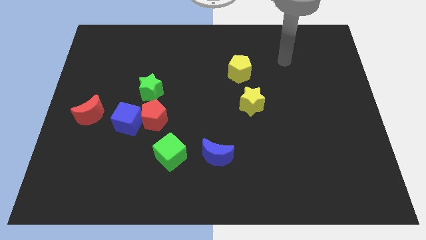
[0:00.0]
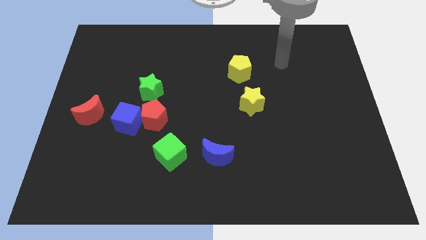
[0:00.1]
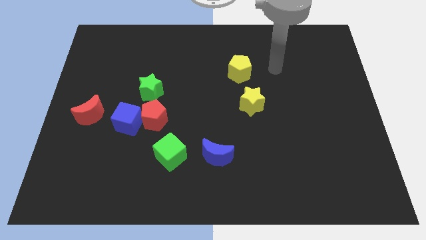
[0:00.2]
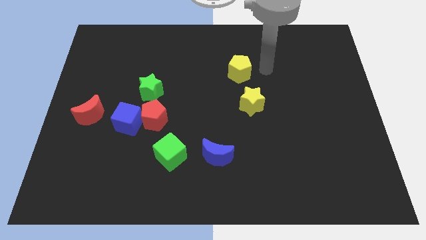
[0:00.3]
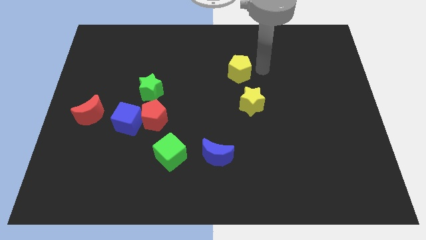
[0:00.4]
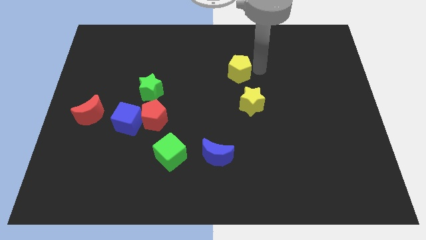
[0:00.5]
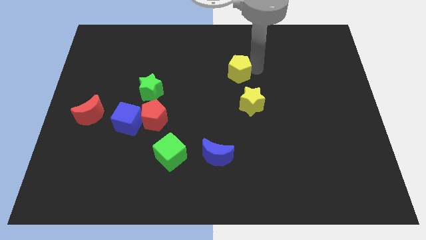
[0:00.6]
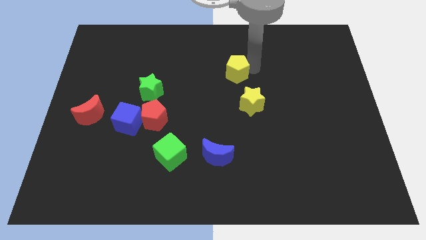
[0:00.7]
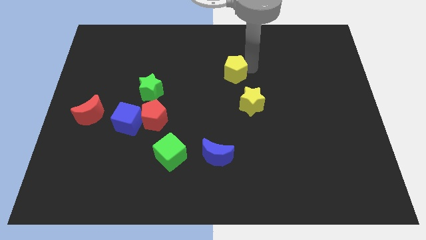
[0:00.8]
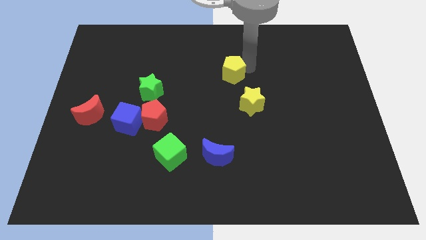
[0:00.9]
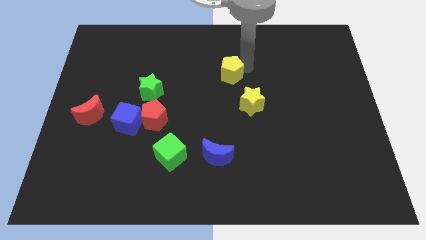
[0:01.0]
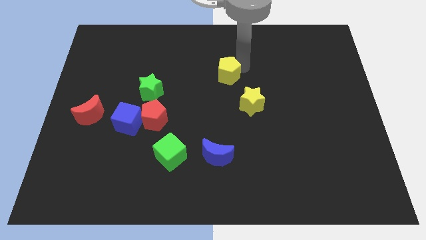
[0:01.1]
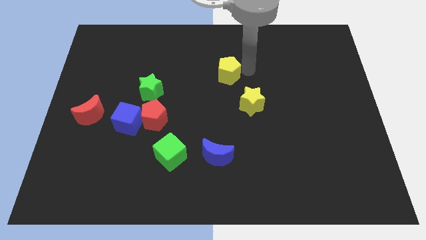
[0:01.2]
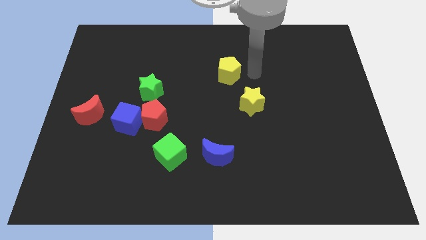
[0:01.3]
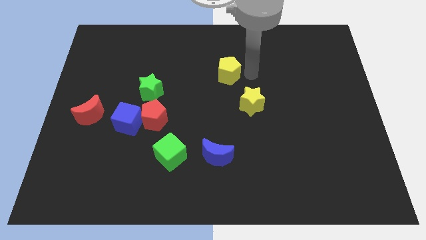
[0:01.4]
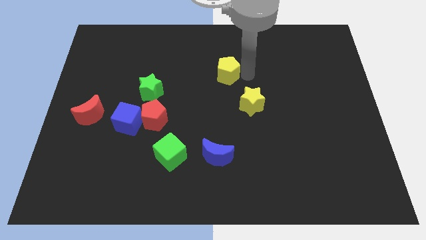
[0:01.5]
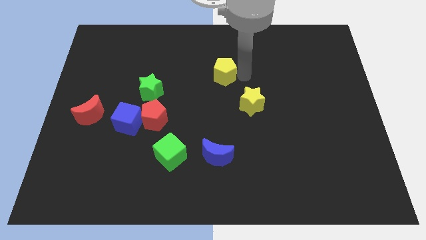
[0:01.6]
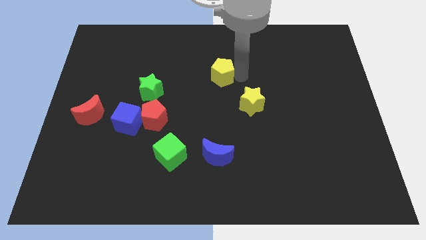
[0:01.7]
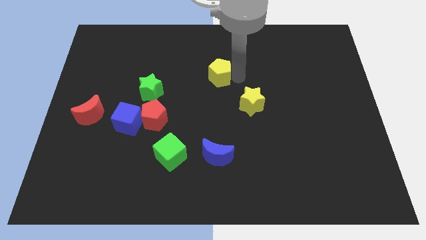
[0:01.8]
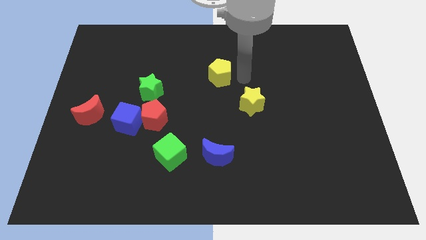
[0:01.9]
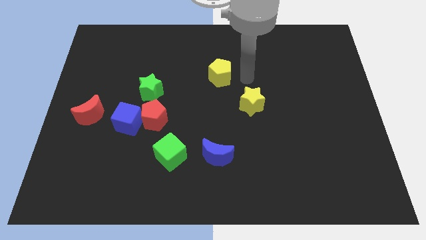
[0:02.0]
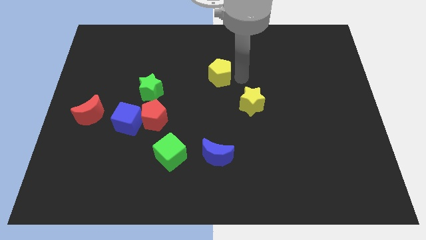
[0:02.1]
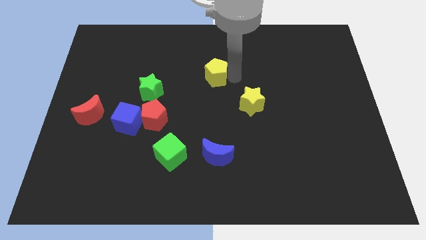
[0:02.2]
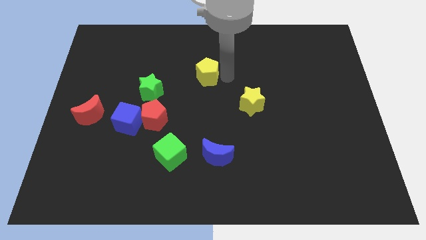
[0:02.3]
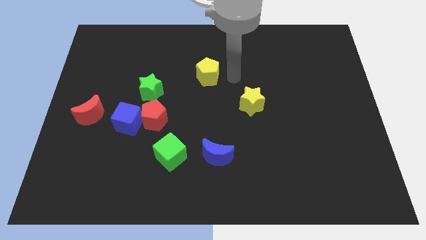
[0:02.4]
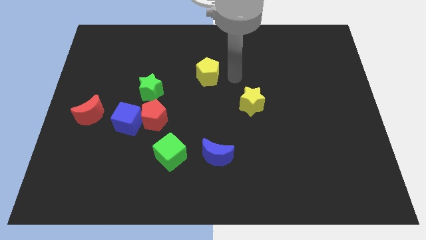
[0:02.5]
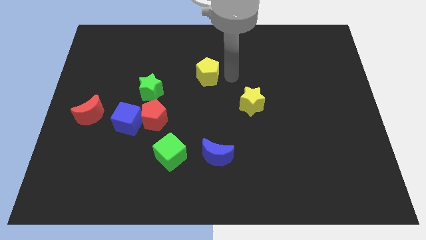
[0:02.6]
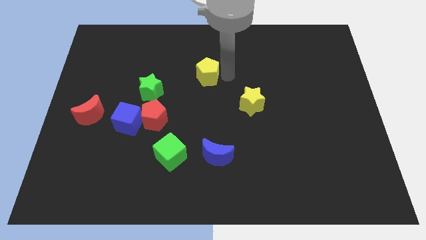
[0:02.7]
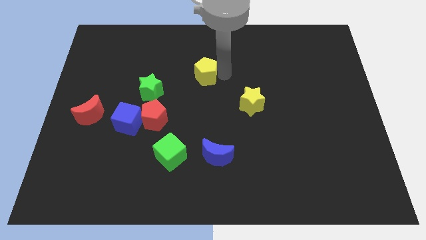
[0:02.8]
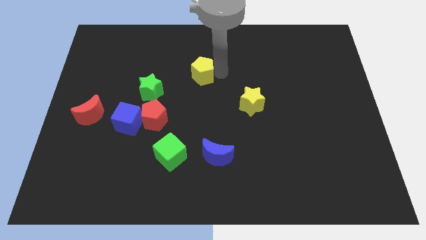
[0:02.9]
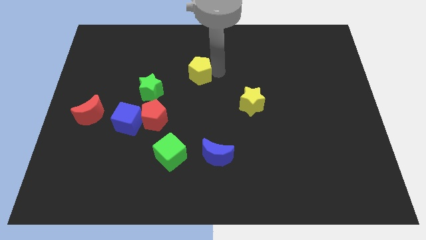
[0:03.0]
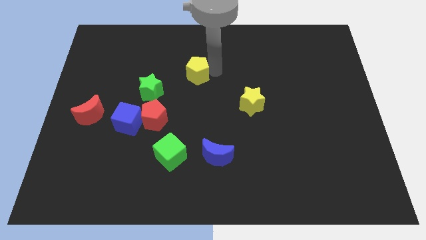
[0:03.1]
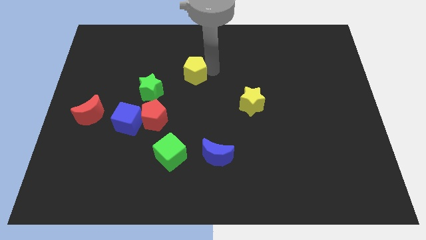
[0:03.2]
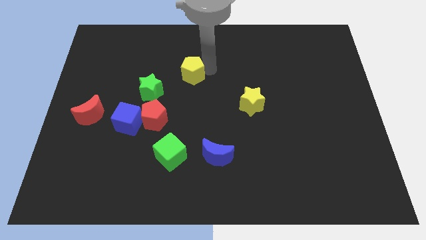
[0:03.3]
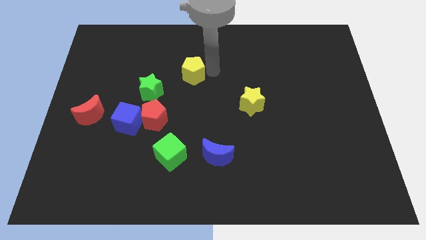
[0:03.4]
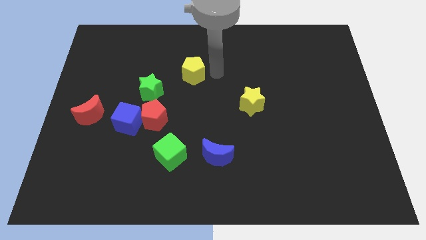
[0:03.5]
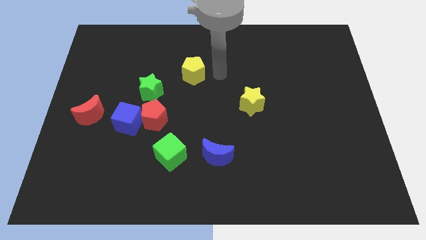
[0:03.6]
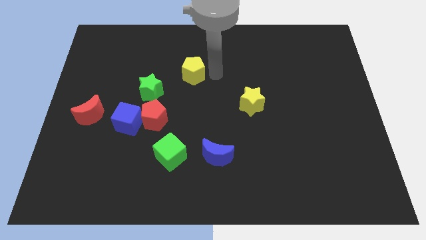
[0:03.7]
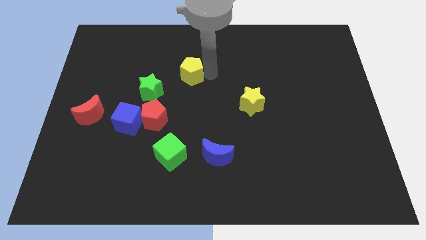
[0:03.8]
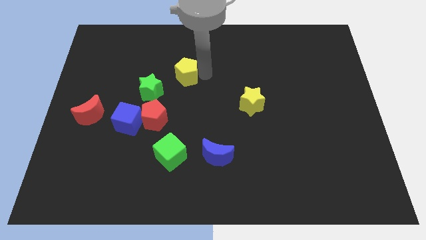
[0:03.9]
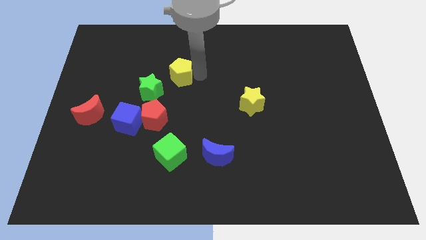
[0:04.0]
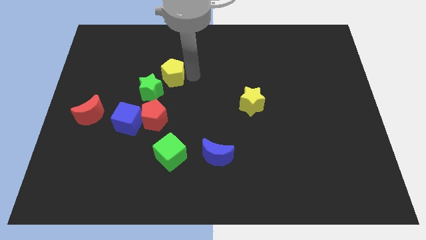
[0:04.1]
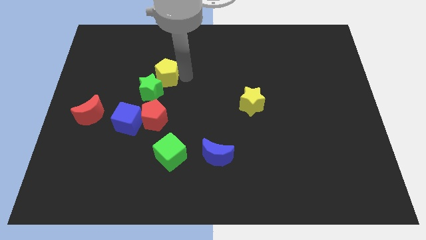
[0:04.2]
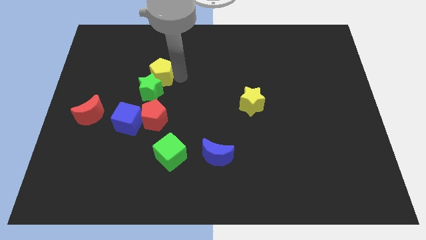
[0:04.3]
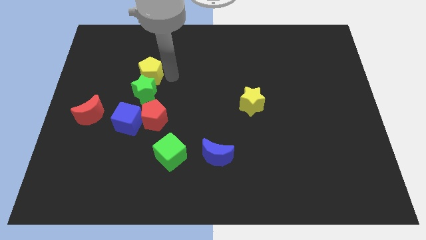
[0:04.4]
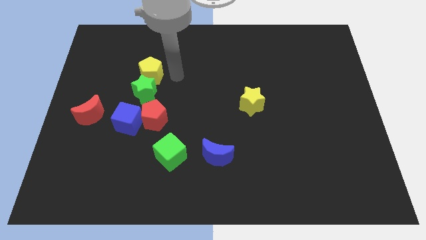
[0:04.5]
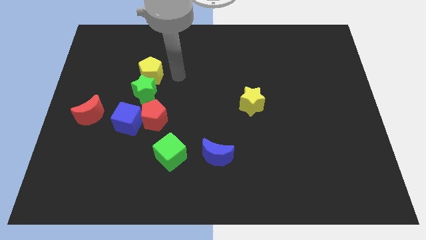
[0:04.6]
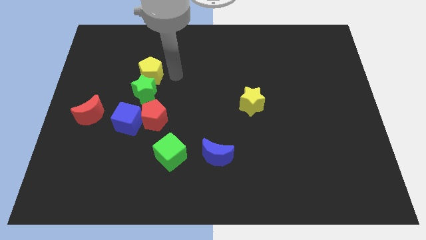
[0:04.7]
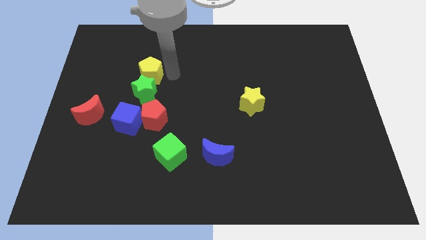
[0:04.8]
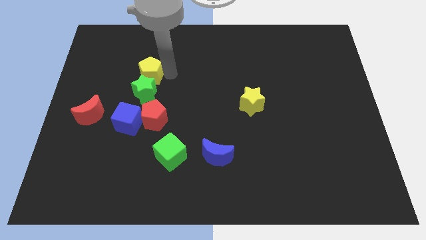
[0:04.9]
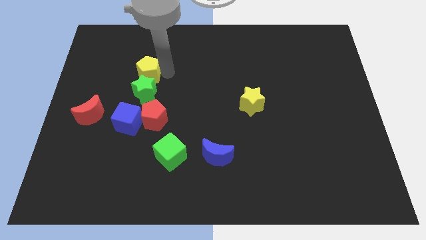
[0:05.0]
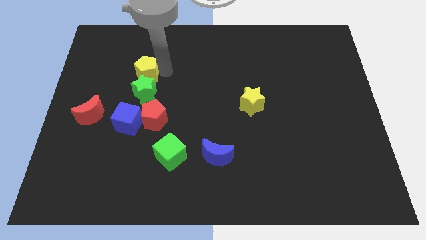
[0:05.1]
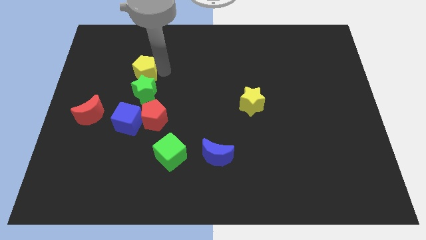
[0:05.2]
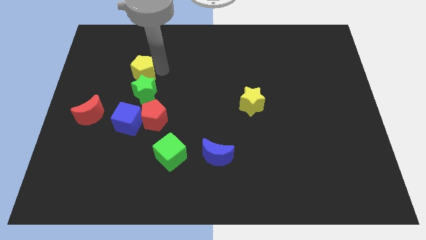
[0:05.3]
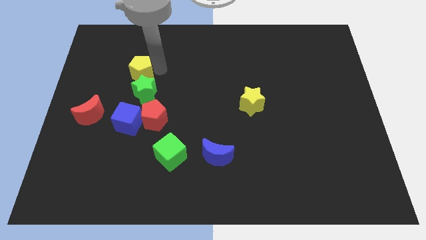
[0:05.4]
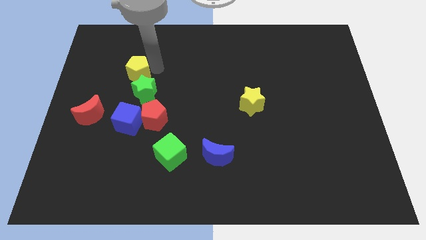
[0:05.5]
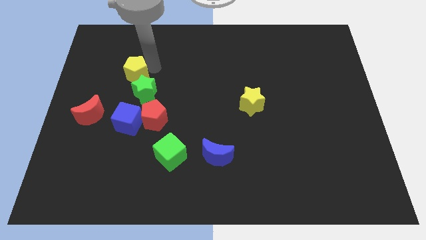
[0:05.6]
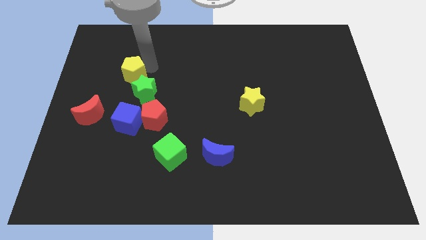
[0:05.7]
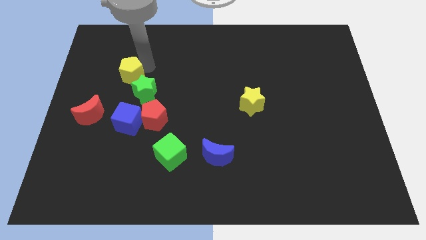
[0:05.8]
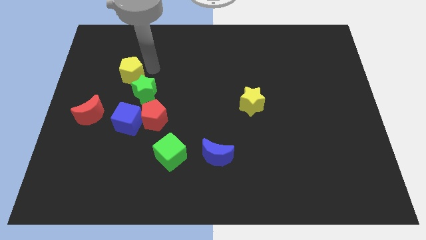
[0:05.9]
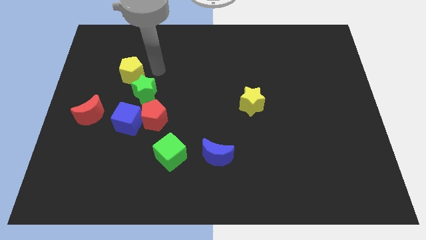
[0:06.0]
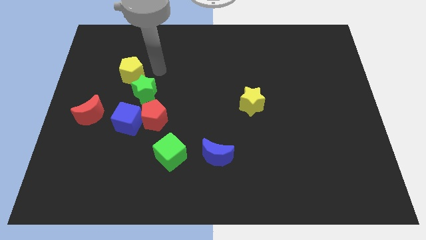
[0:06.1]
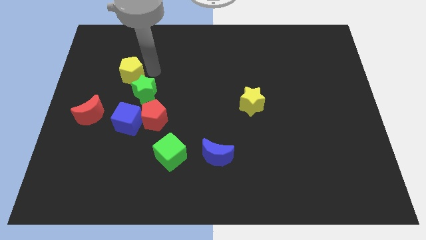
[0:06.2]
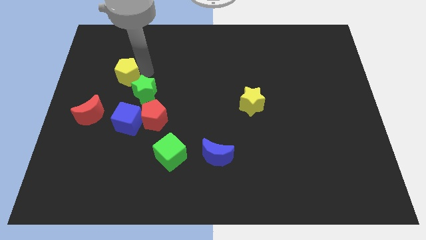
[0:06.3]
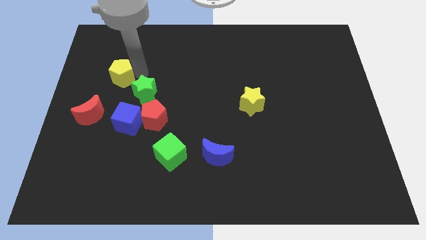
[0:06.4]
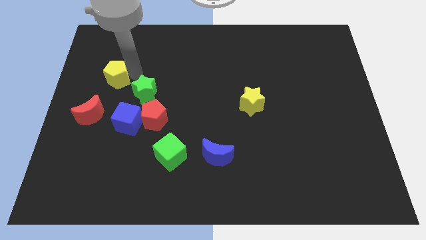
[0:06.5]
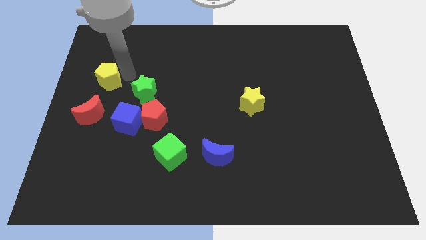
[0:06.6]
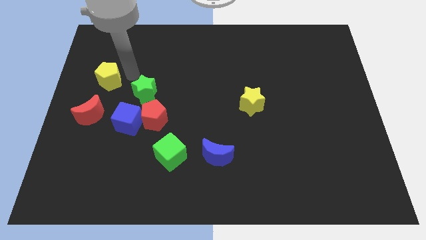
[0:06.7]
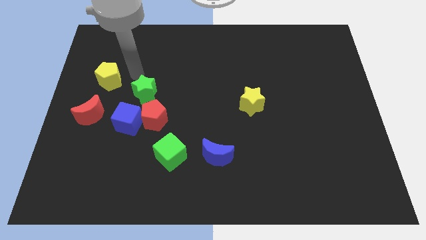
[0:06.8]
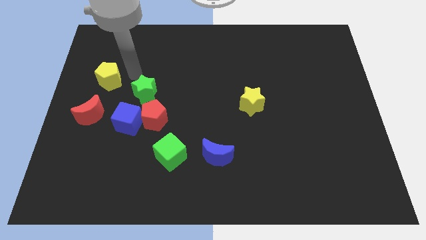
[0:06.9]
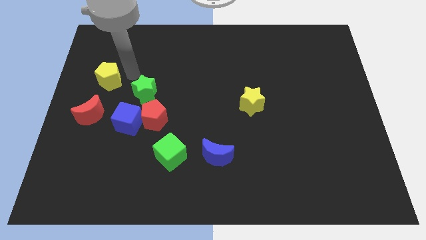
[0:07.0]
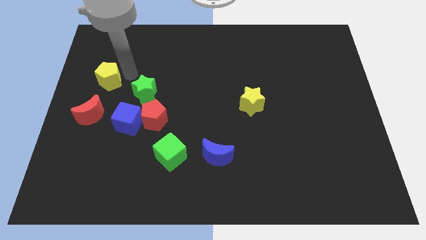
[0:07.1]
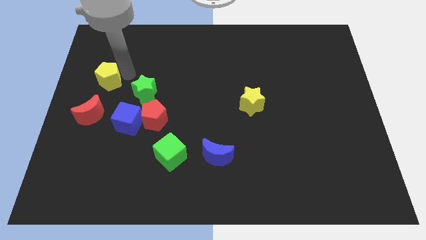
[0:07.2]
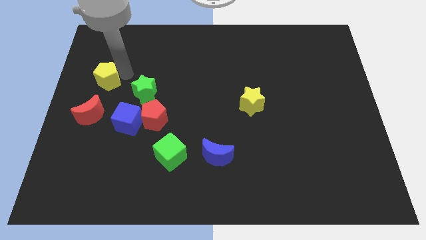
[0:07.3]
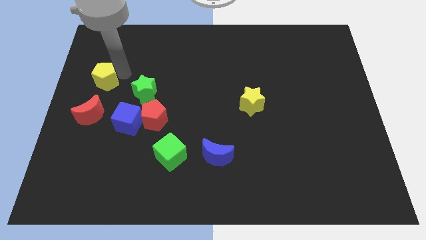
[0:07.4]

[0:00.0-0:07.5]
move the yellow pentagon to the left side of the board
